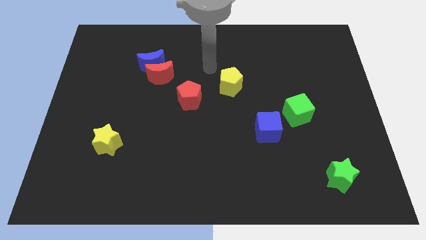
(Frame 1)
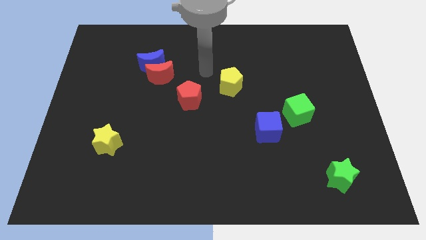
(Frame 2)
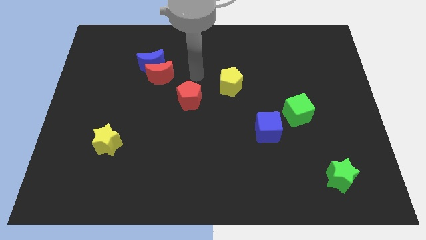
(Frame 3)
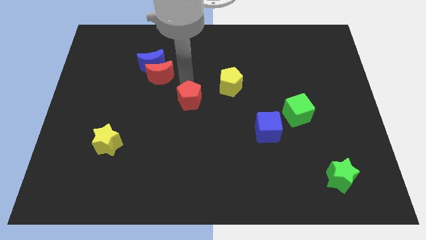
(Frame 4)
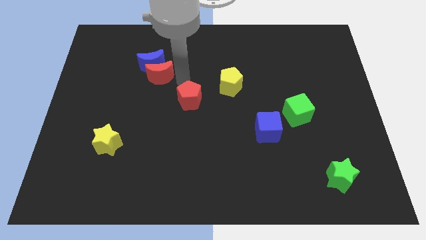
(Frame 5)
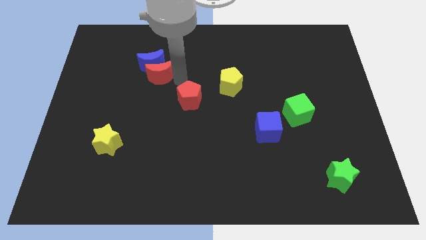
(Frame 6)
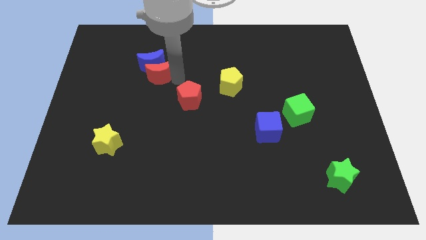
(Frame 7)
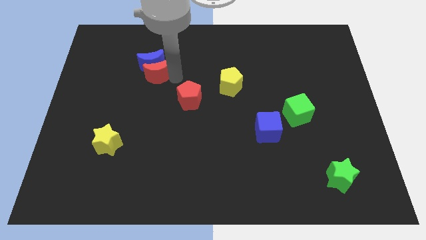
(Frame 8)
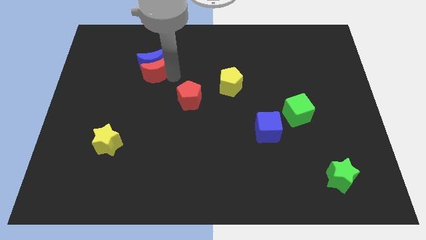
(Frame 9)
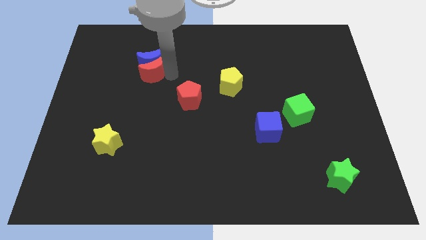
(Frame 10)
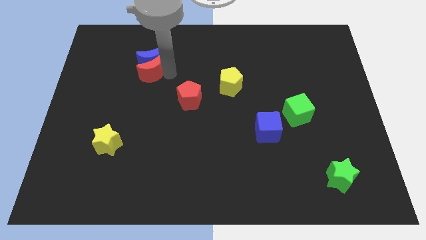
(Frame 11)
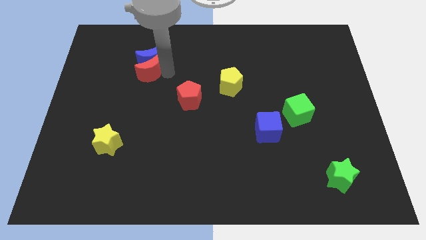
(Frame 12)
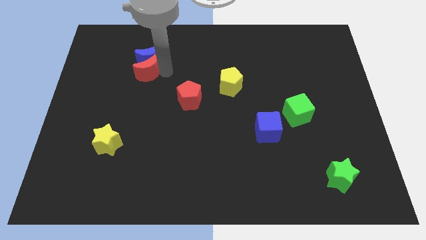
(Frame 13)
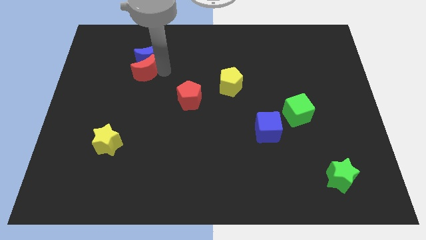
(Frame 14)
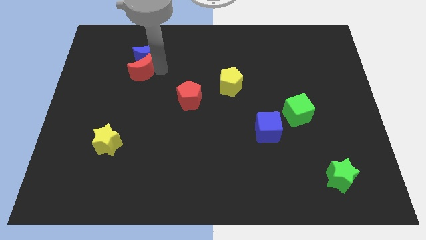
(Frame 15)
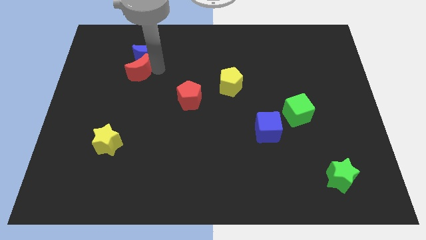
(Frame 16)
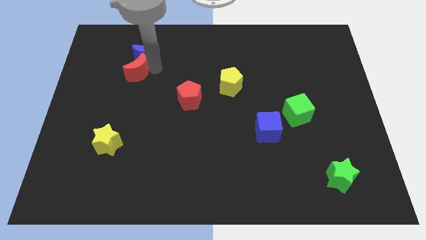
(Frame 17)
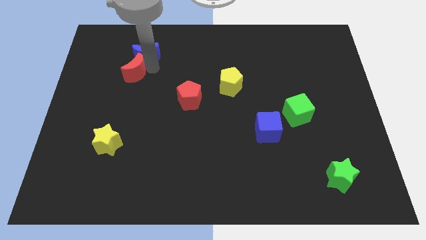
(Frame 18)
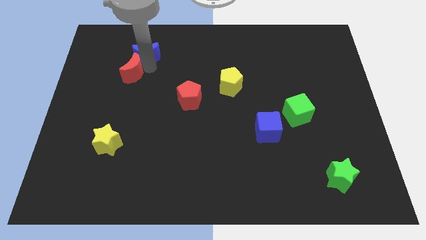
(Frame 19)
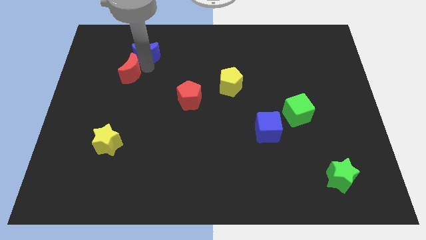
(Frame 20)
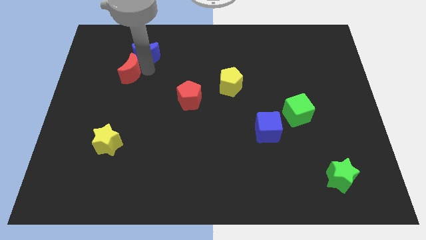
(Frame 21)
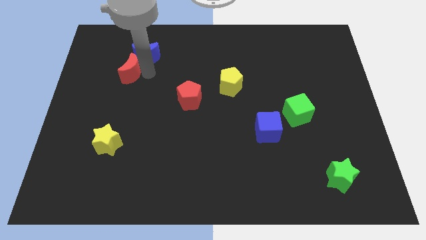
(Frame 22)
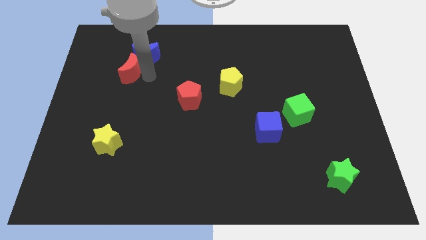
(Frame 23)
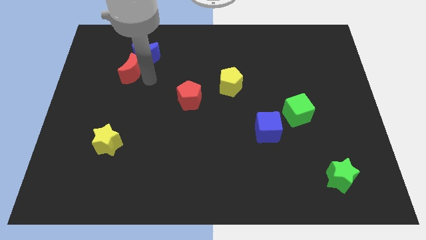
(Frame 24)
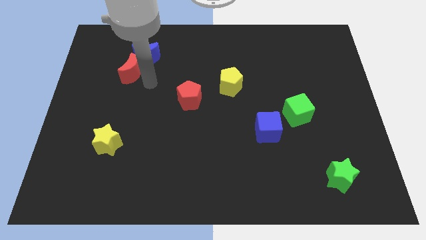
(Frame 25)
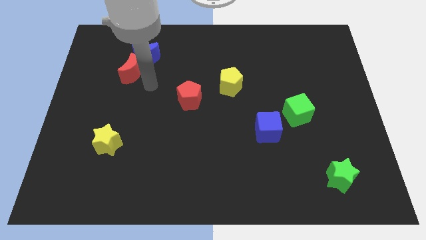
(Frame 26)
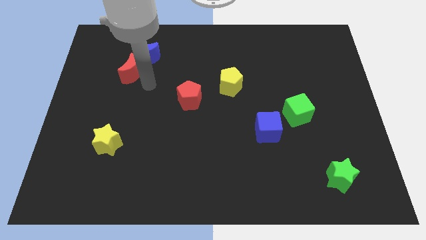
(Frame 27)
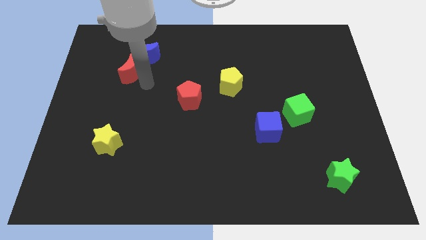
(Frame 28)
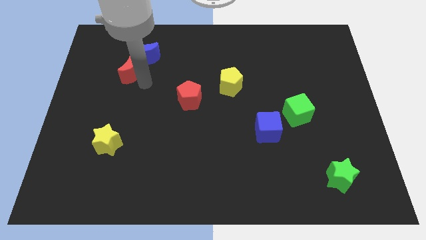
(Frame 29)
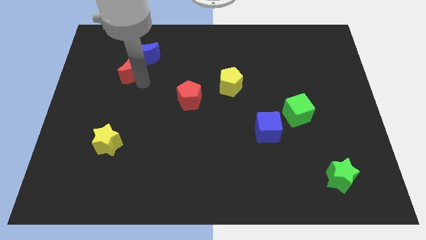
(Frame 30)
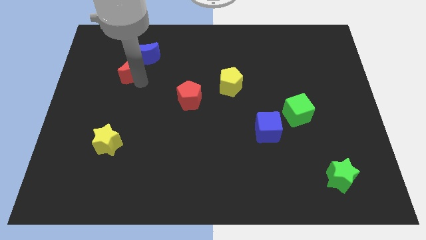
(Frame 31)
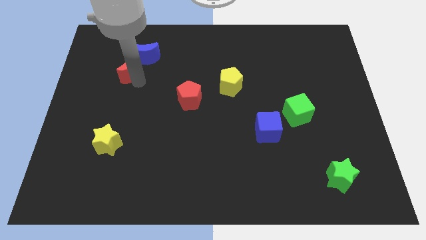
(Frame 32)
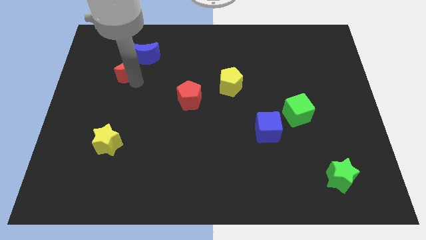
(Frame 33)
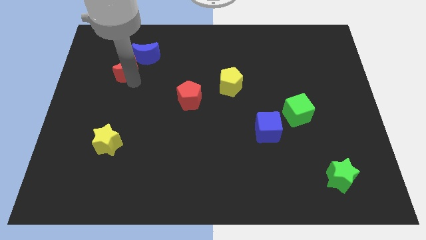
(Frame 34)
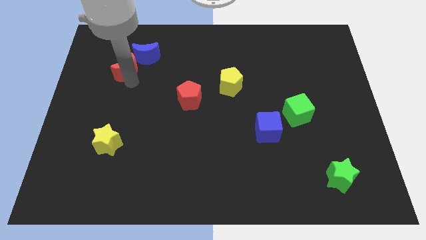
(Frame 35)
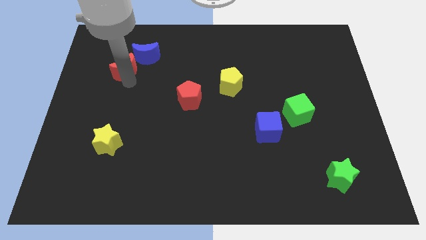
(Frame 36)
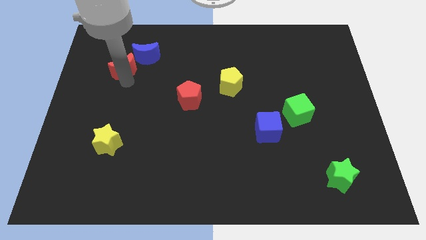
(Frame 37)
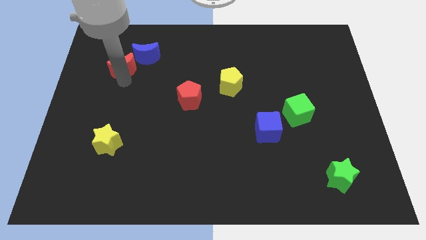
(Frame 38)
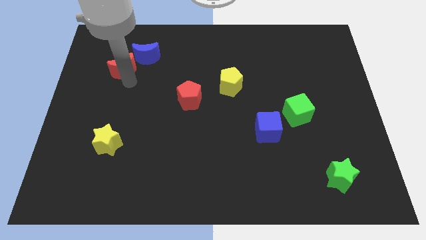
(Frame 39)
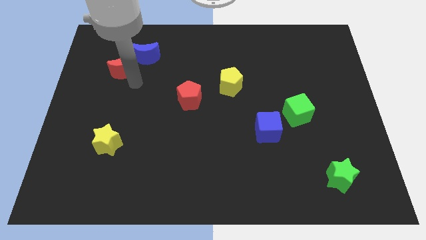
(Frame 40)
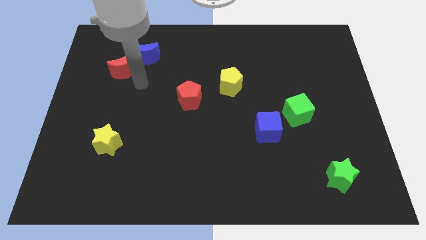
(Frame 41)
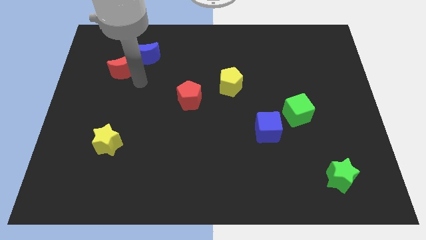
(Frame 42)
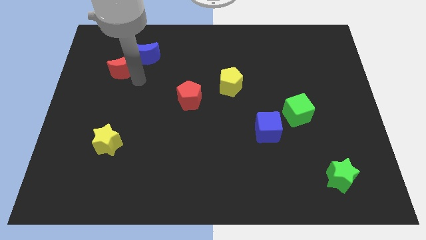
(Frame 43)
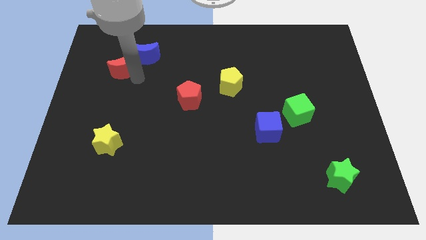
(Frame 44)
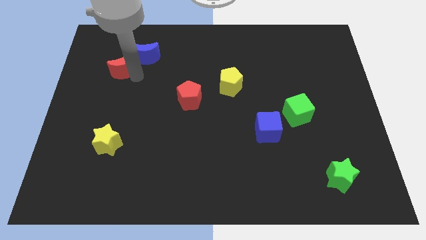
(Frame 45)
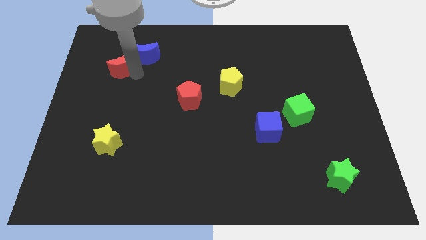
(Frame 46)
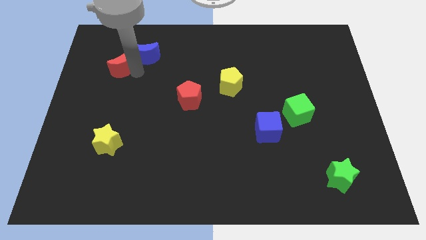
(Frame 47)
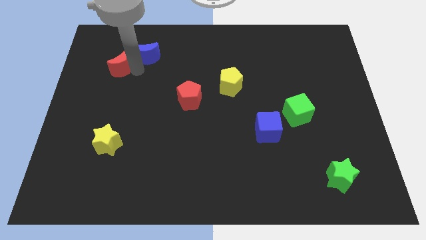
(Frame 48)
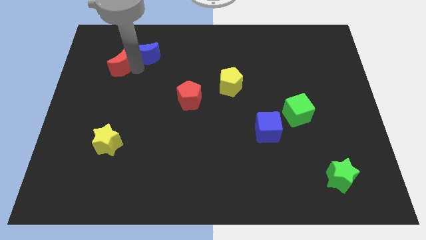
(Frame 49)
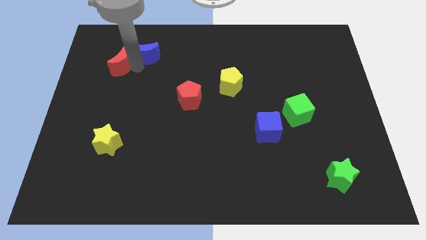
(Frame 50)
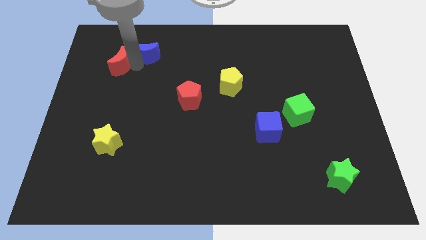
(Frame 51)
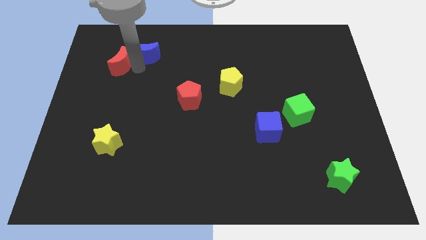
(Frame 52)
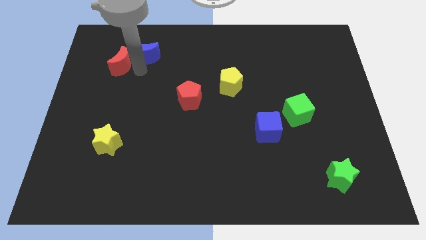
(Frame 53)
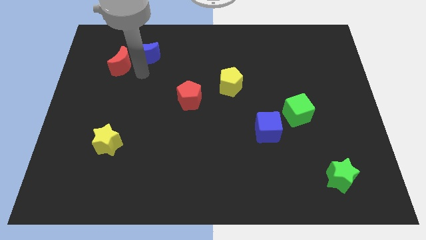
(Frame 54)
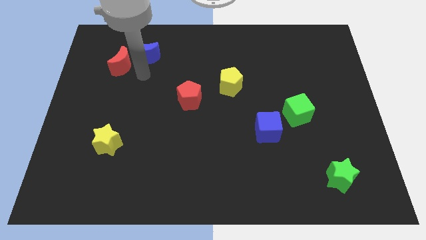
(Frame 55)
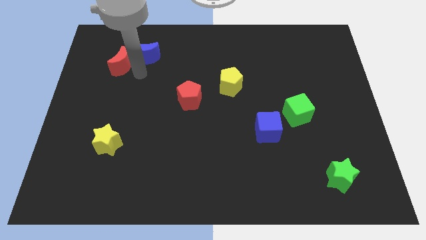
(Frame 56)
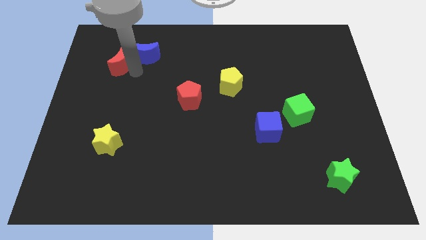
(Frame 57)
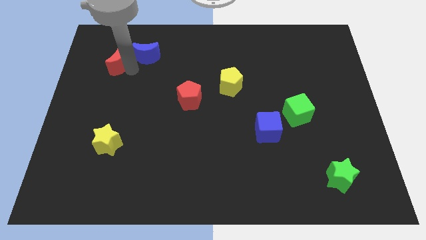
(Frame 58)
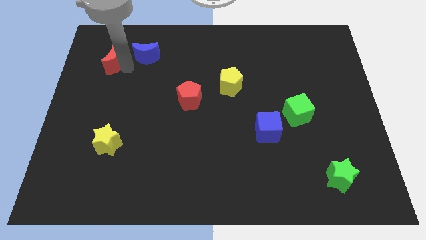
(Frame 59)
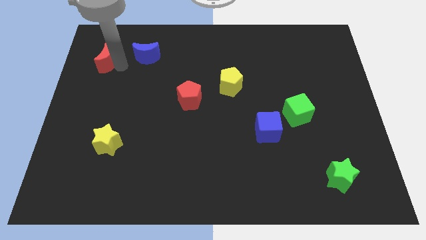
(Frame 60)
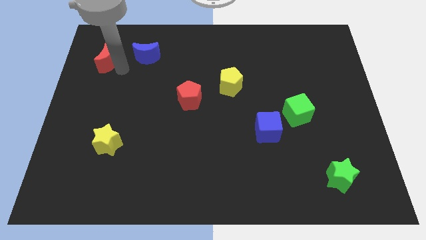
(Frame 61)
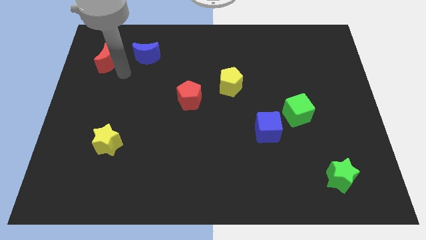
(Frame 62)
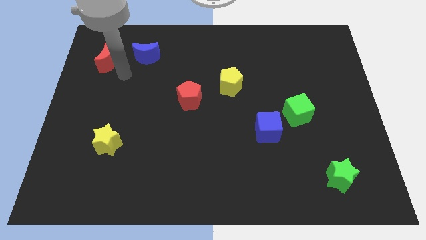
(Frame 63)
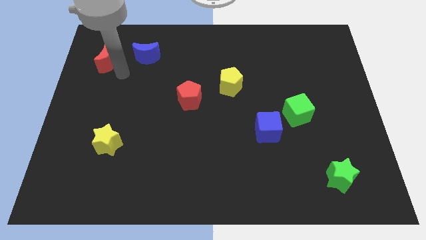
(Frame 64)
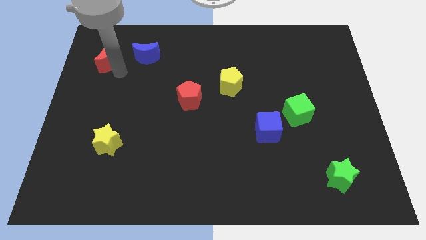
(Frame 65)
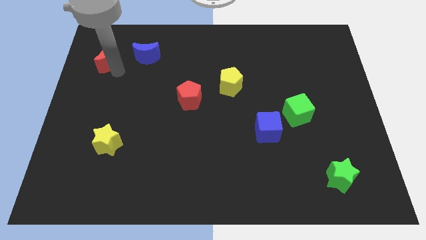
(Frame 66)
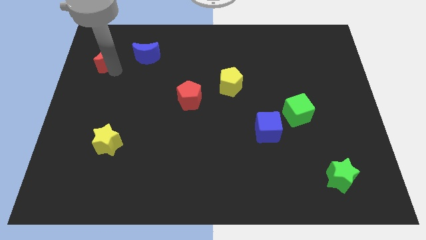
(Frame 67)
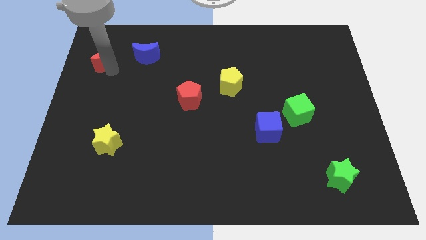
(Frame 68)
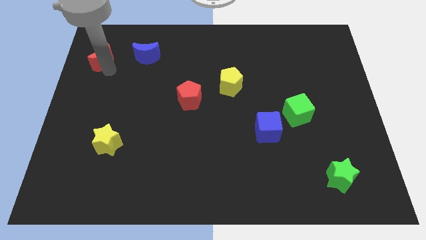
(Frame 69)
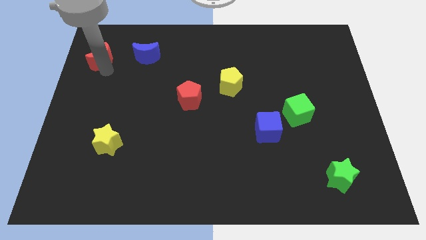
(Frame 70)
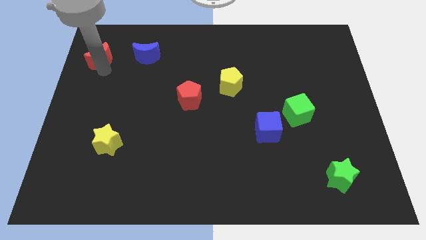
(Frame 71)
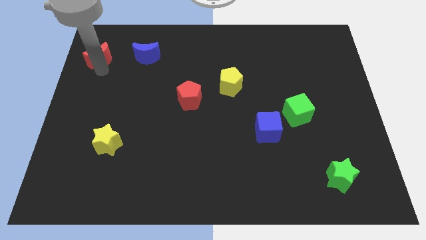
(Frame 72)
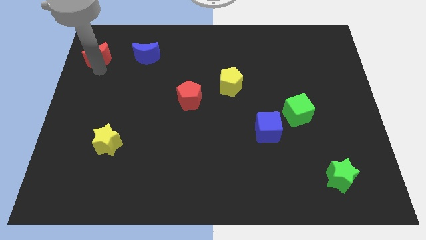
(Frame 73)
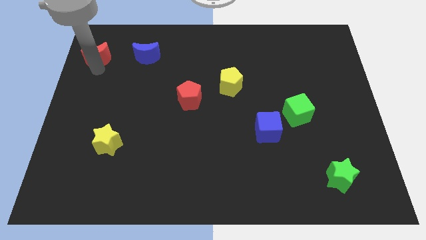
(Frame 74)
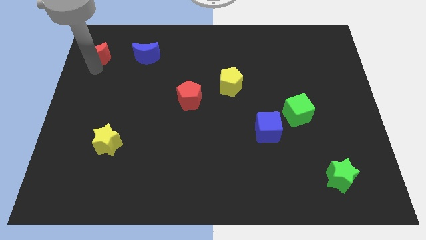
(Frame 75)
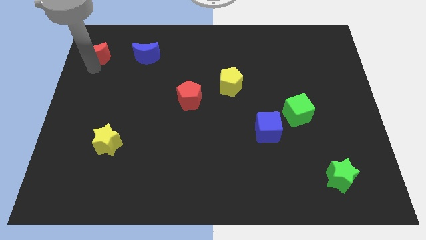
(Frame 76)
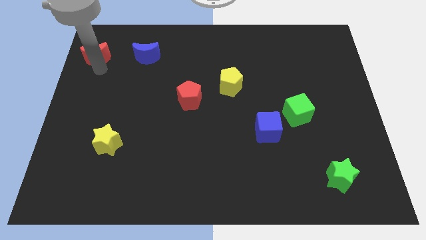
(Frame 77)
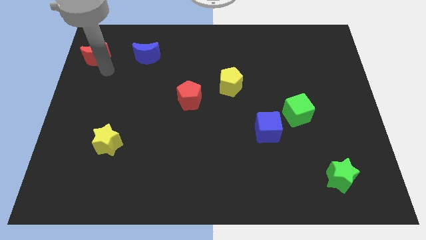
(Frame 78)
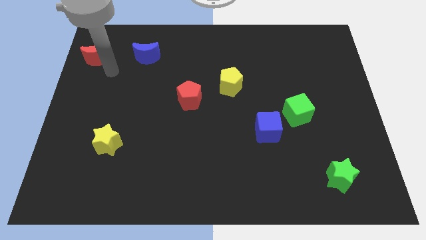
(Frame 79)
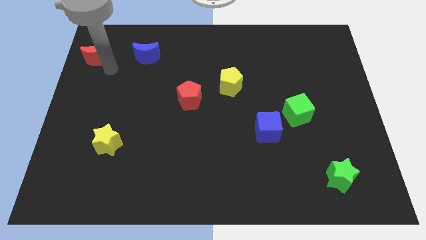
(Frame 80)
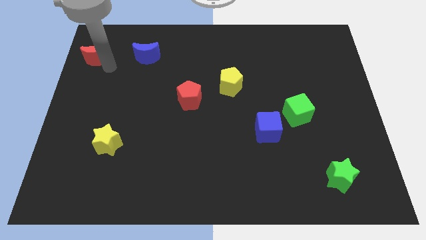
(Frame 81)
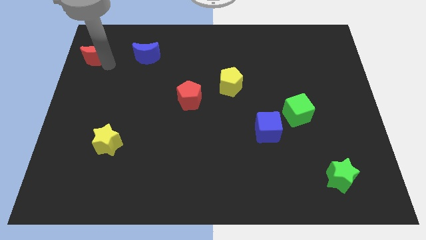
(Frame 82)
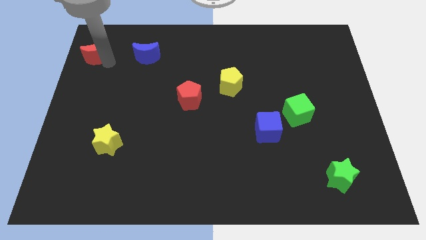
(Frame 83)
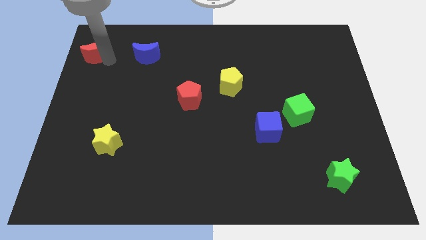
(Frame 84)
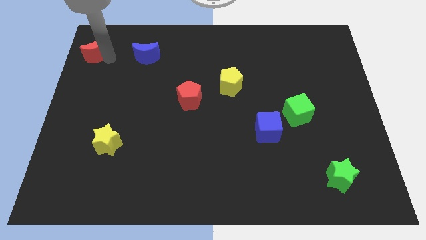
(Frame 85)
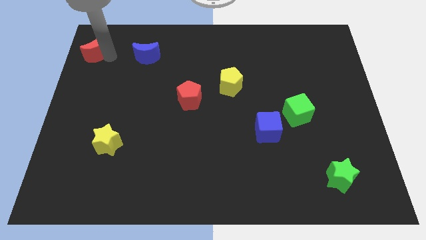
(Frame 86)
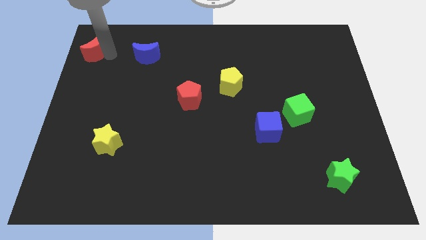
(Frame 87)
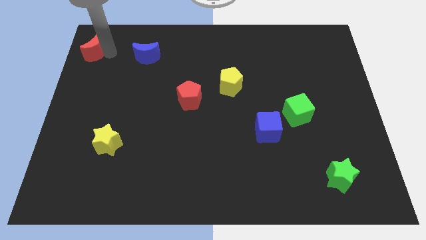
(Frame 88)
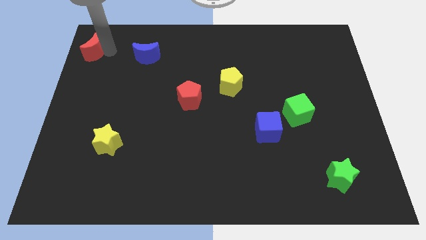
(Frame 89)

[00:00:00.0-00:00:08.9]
slide the red moon to the top left of the board
